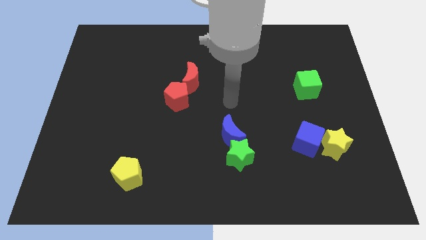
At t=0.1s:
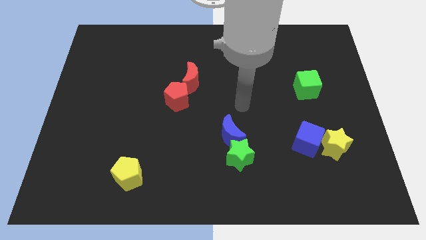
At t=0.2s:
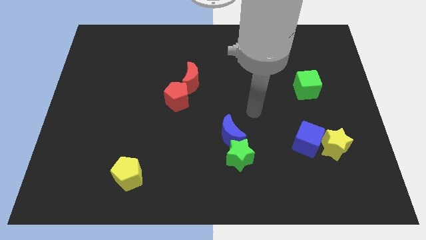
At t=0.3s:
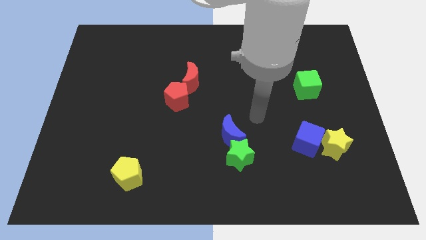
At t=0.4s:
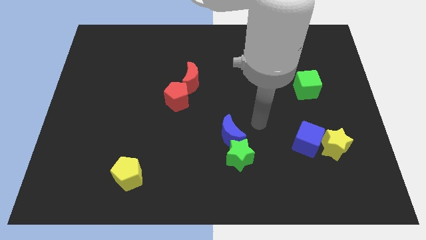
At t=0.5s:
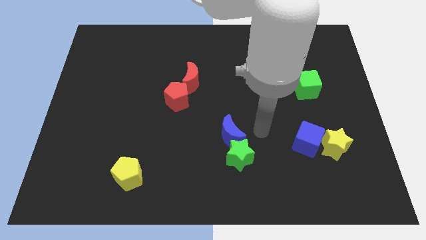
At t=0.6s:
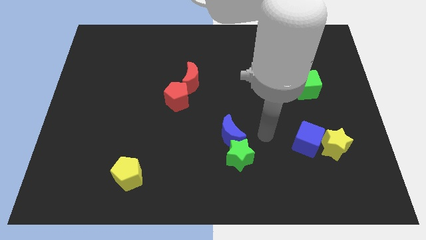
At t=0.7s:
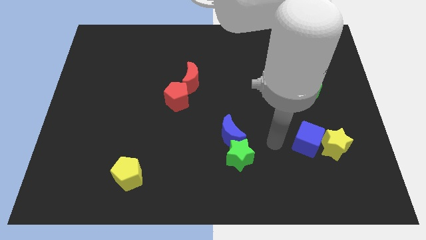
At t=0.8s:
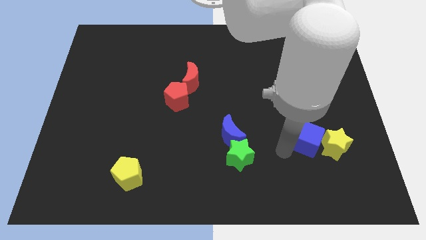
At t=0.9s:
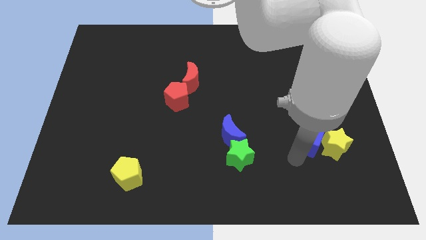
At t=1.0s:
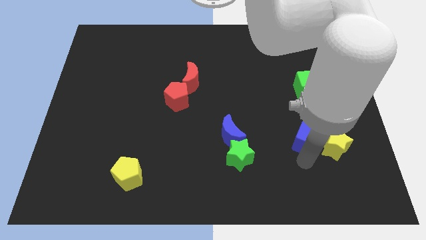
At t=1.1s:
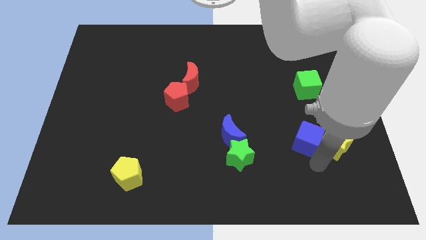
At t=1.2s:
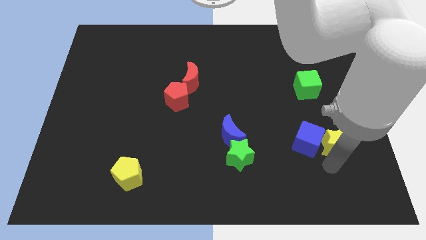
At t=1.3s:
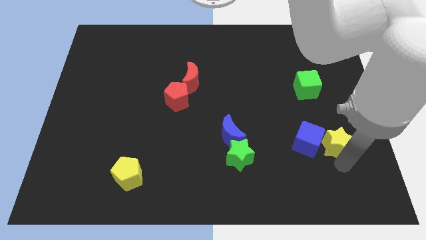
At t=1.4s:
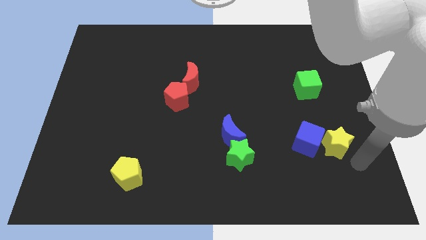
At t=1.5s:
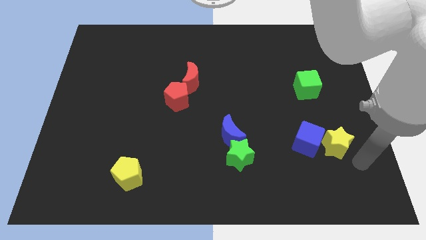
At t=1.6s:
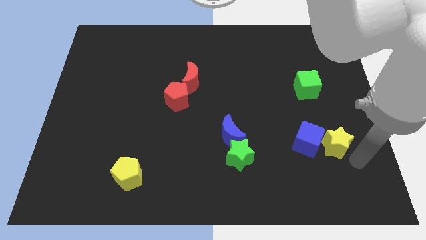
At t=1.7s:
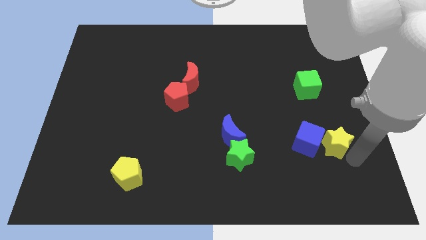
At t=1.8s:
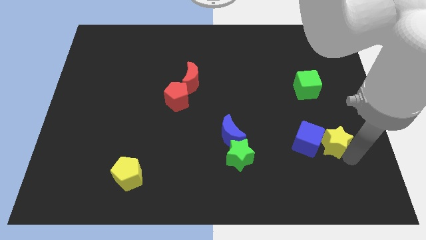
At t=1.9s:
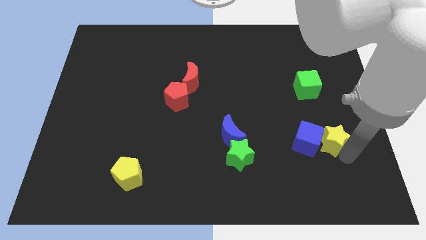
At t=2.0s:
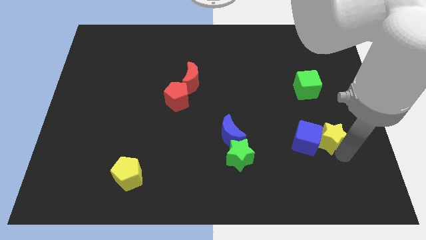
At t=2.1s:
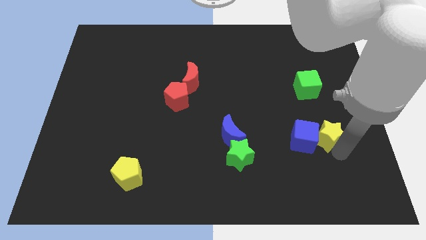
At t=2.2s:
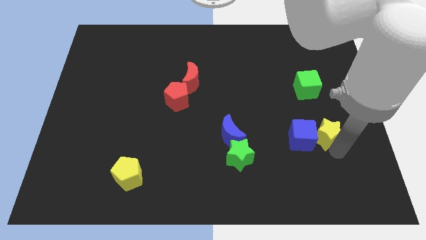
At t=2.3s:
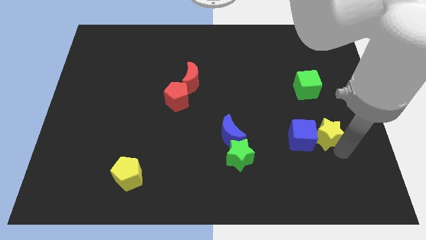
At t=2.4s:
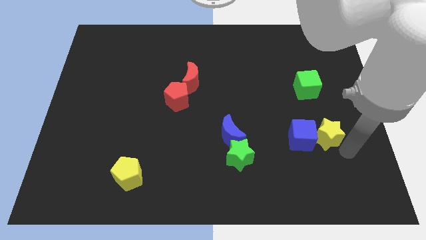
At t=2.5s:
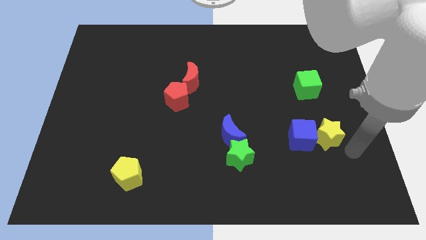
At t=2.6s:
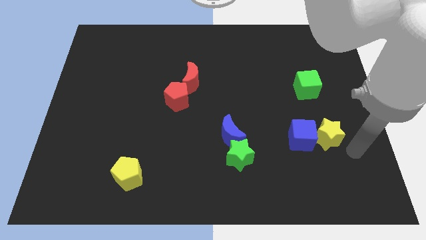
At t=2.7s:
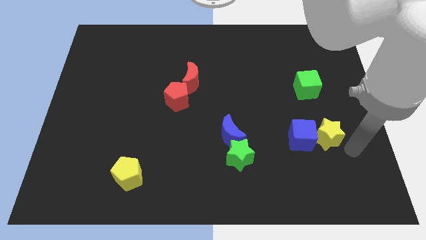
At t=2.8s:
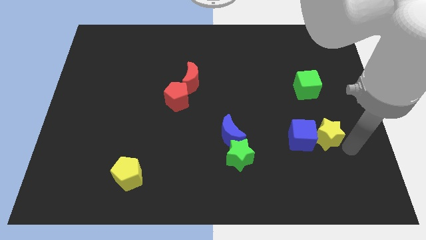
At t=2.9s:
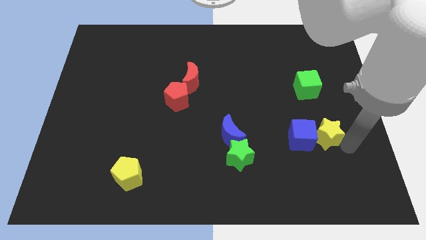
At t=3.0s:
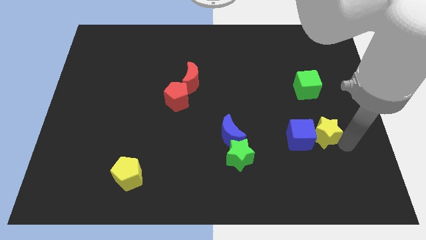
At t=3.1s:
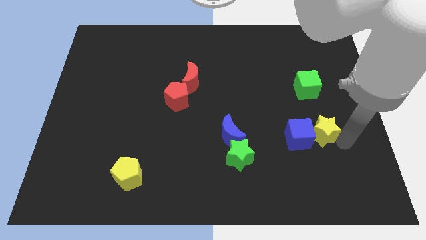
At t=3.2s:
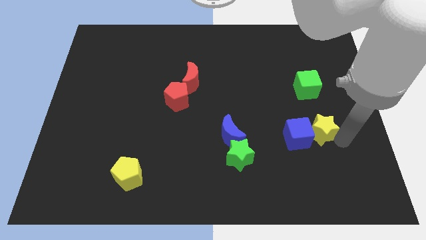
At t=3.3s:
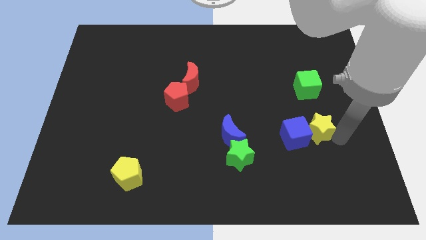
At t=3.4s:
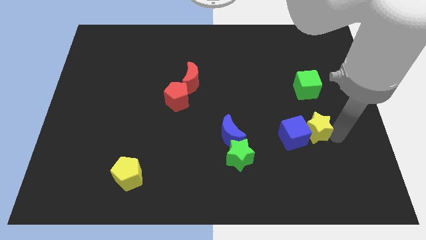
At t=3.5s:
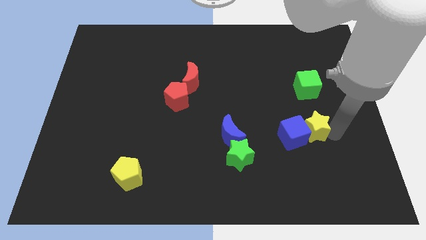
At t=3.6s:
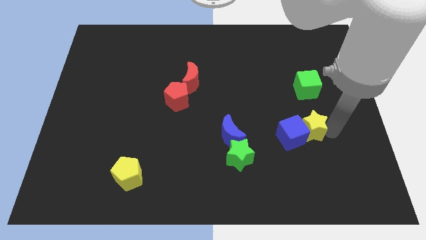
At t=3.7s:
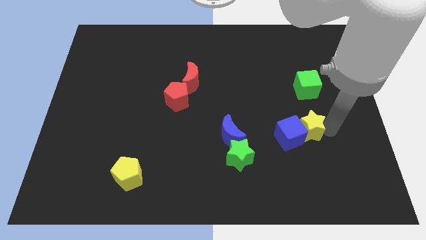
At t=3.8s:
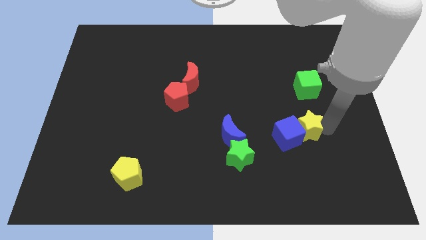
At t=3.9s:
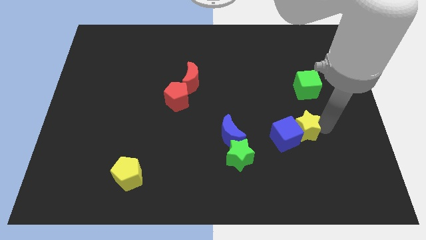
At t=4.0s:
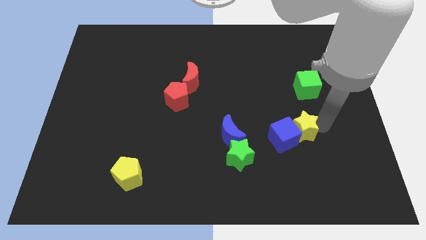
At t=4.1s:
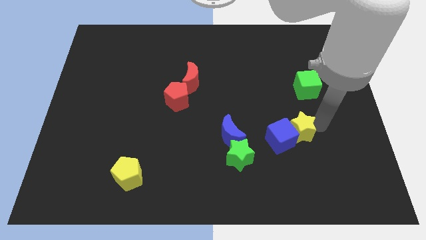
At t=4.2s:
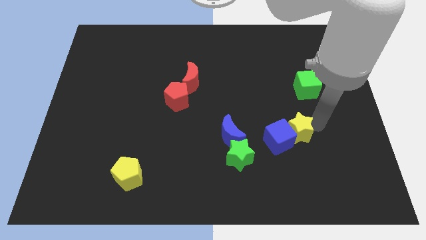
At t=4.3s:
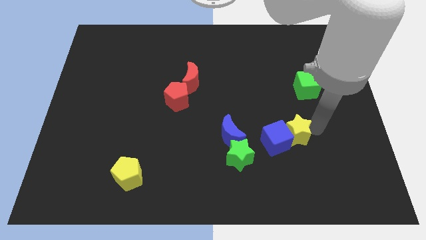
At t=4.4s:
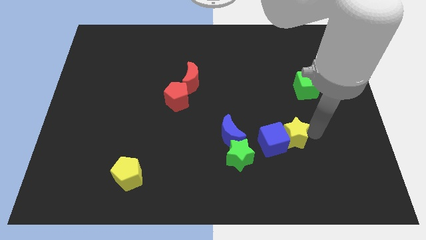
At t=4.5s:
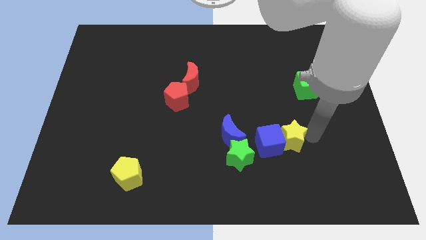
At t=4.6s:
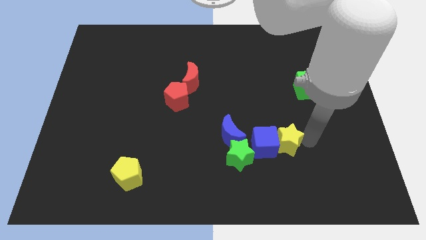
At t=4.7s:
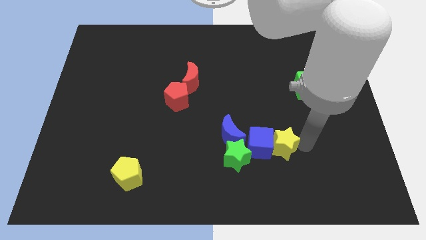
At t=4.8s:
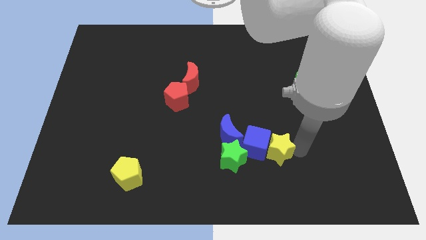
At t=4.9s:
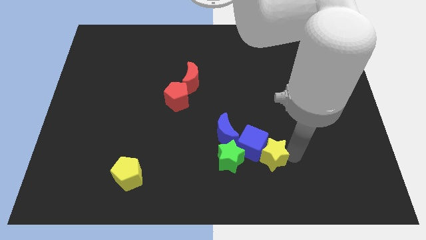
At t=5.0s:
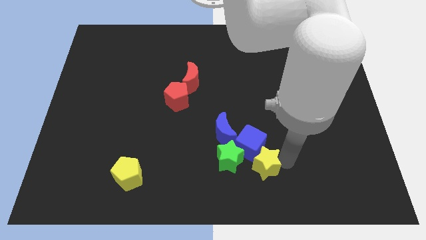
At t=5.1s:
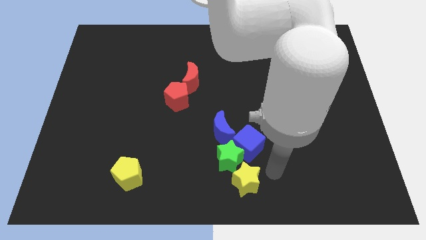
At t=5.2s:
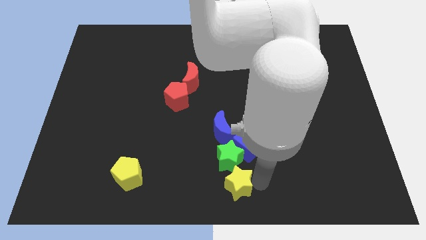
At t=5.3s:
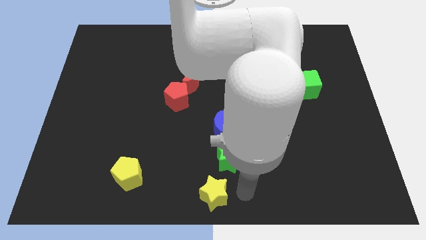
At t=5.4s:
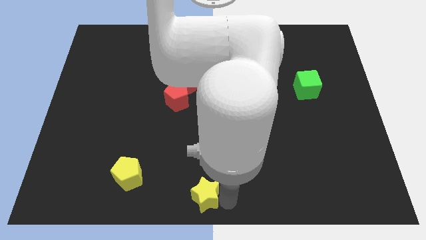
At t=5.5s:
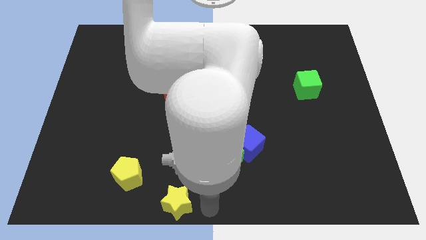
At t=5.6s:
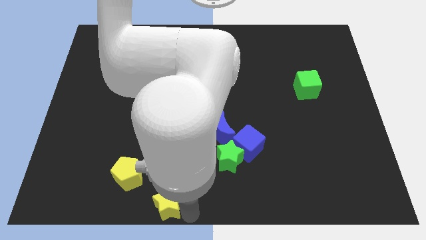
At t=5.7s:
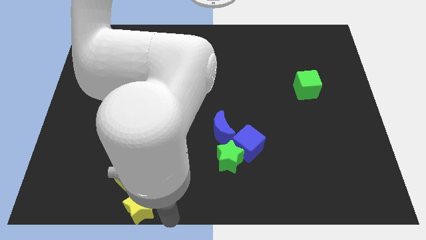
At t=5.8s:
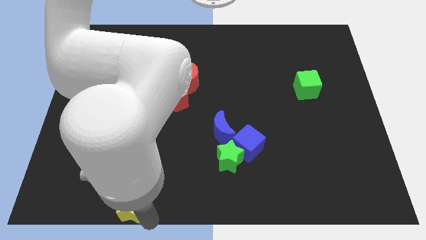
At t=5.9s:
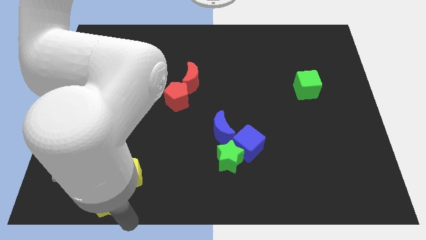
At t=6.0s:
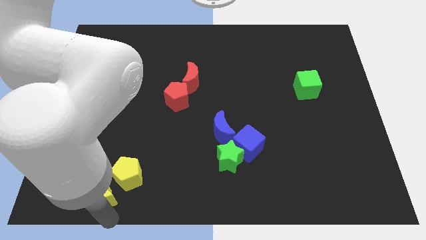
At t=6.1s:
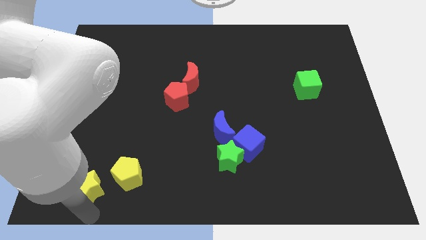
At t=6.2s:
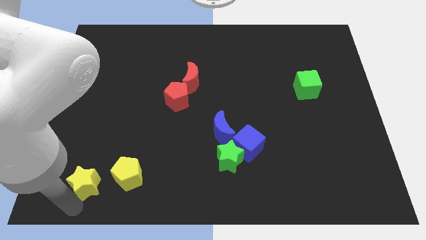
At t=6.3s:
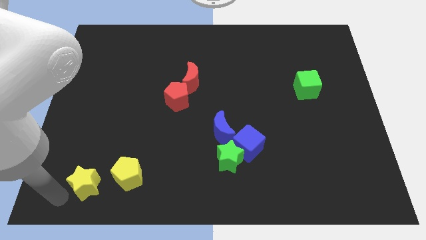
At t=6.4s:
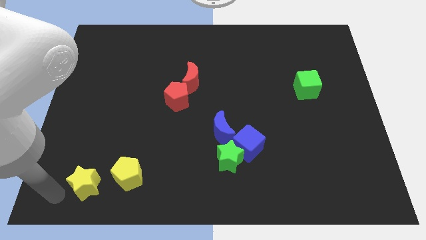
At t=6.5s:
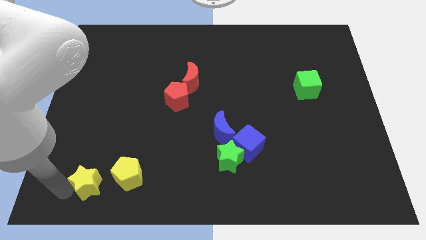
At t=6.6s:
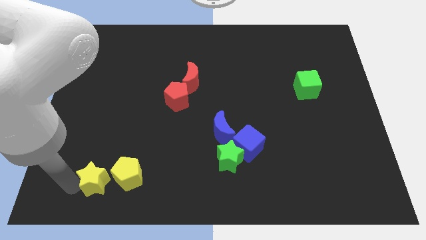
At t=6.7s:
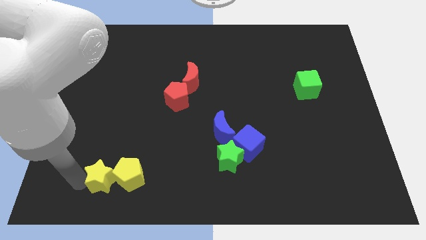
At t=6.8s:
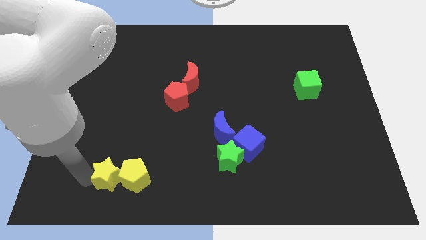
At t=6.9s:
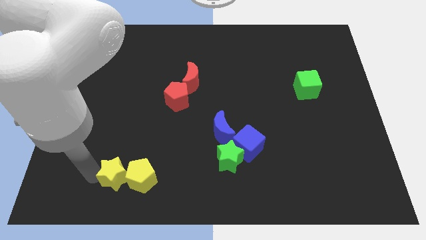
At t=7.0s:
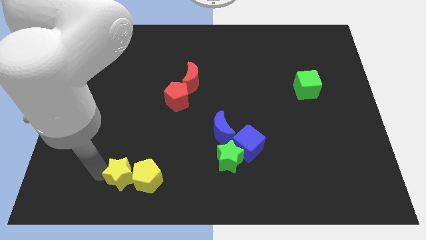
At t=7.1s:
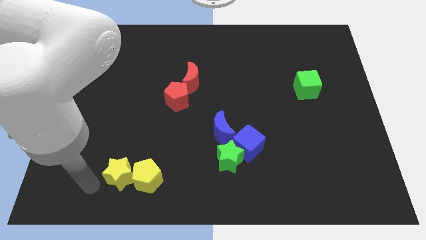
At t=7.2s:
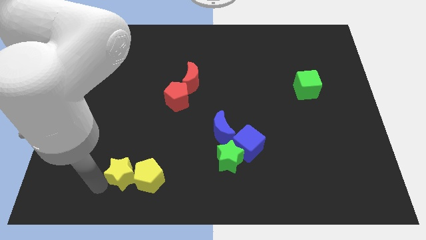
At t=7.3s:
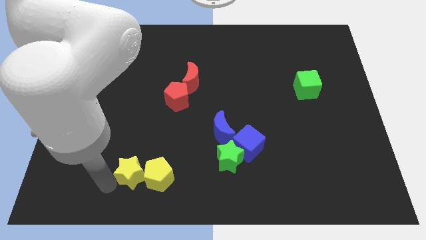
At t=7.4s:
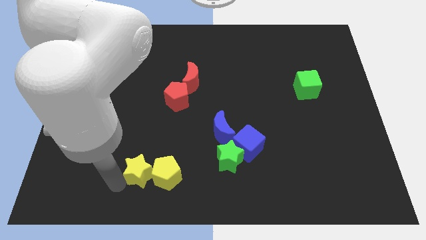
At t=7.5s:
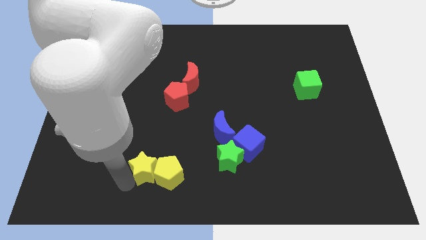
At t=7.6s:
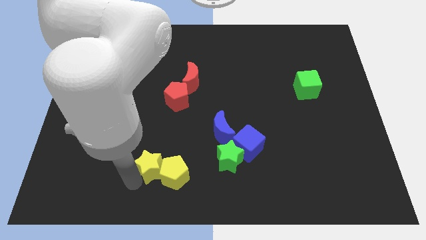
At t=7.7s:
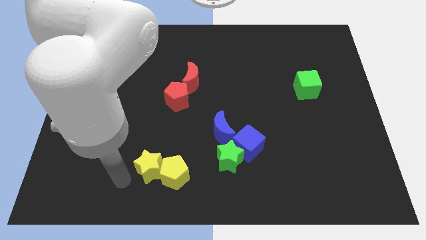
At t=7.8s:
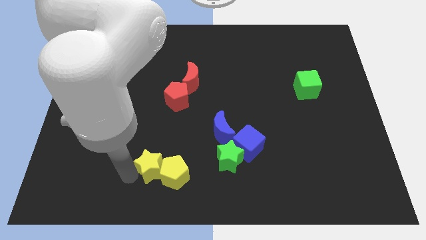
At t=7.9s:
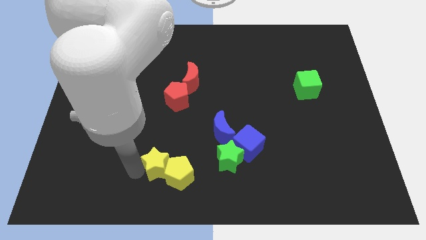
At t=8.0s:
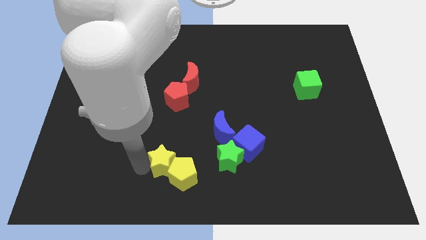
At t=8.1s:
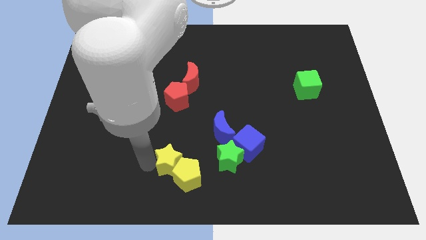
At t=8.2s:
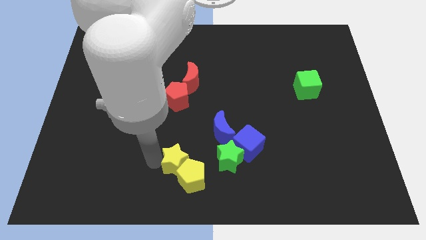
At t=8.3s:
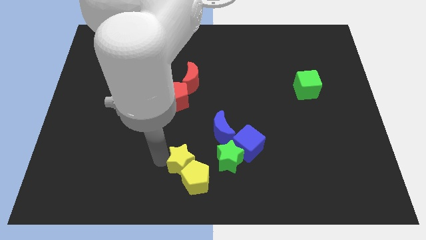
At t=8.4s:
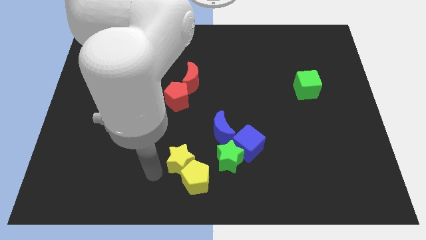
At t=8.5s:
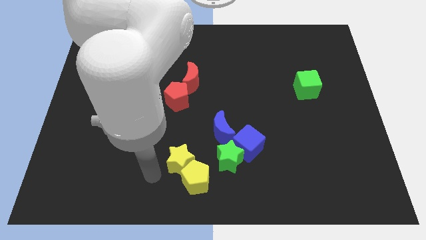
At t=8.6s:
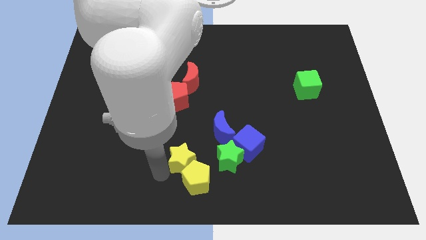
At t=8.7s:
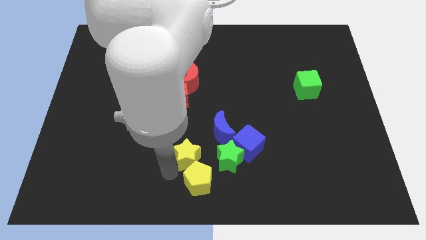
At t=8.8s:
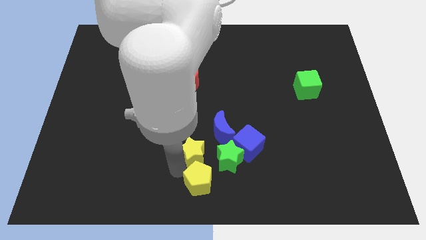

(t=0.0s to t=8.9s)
move the yellow star to the top left side of the green star
